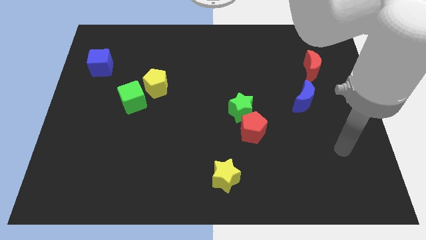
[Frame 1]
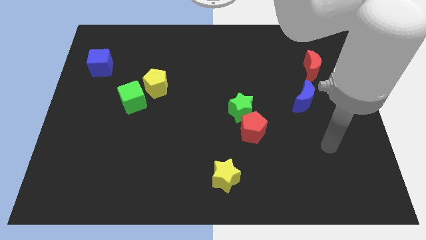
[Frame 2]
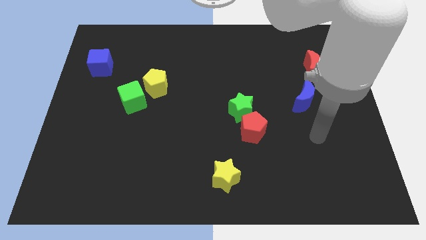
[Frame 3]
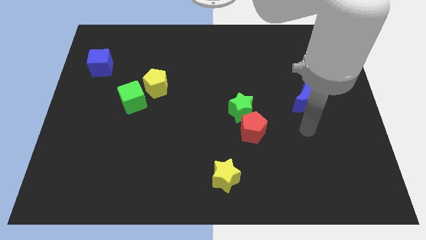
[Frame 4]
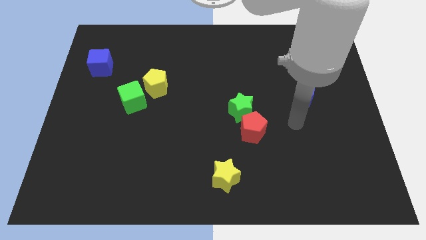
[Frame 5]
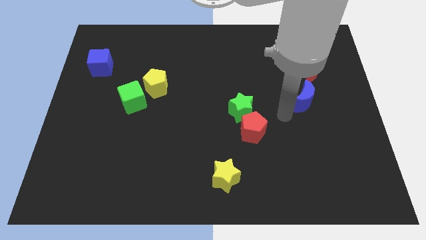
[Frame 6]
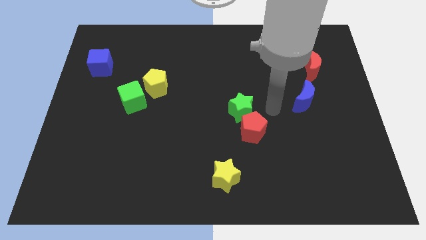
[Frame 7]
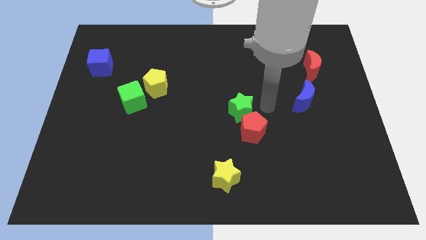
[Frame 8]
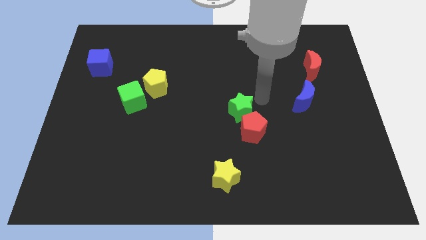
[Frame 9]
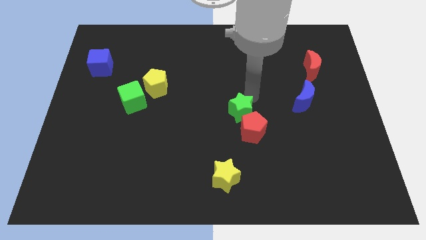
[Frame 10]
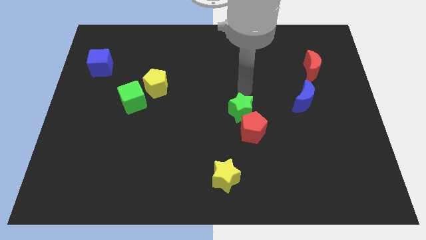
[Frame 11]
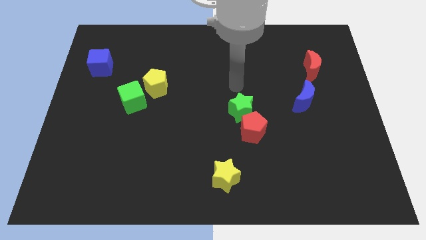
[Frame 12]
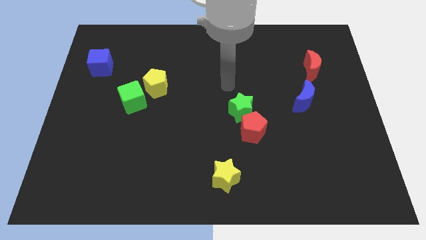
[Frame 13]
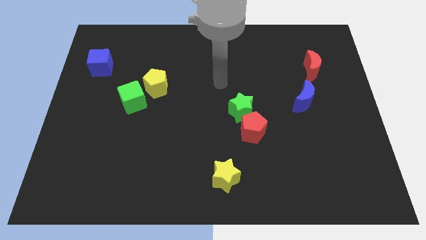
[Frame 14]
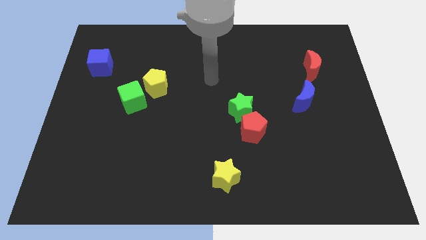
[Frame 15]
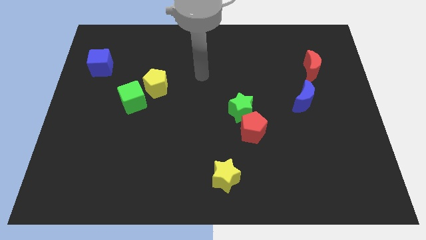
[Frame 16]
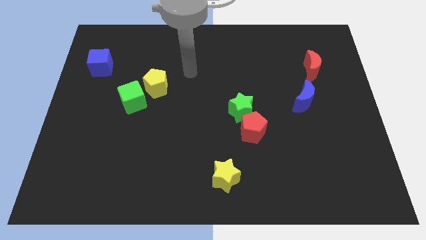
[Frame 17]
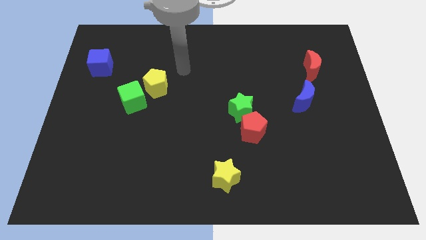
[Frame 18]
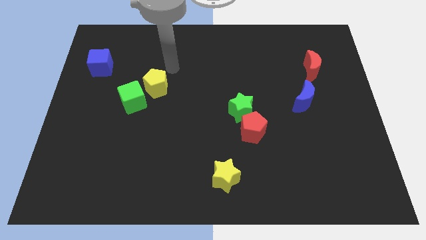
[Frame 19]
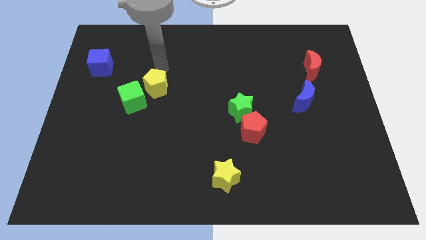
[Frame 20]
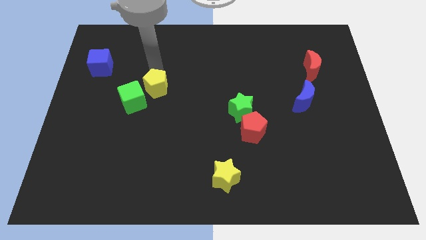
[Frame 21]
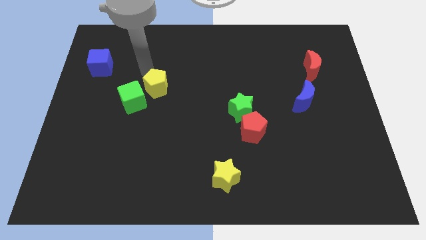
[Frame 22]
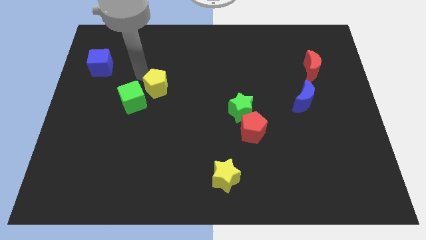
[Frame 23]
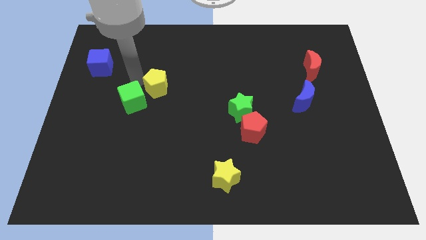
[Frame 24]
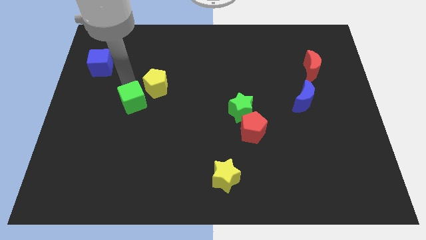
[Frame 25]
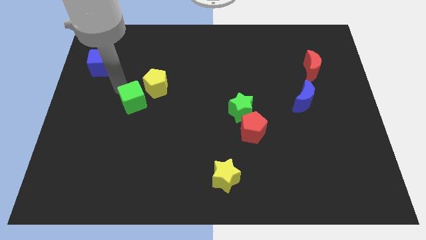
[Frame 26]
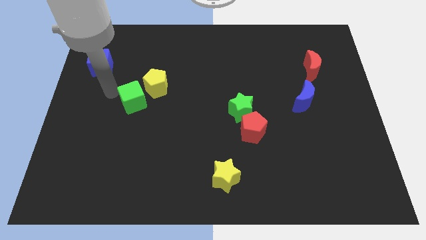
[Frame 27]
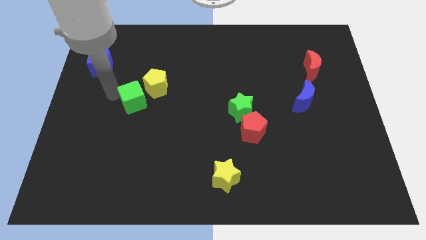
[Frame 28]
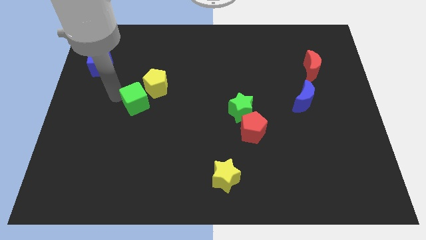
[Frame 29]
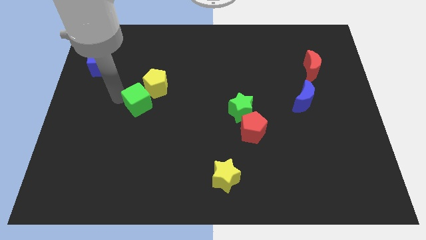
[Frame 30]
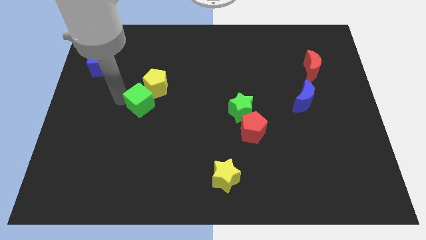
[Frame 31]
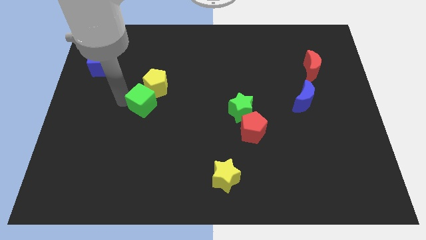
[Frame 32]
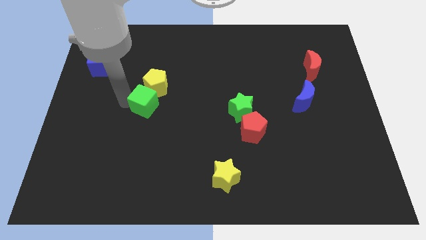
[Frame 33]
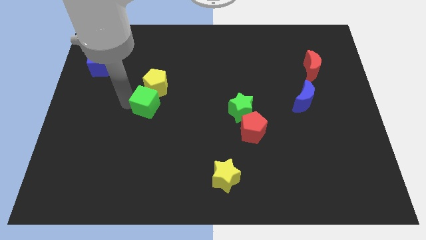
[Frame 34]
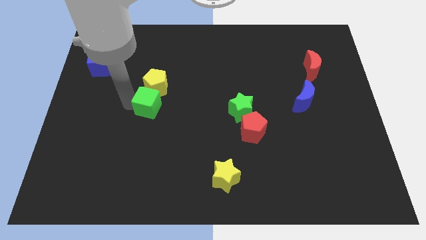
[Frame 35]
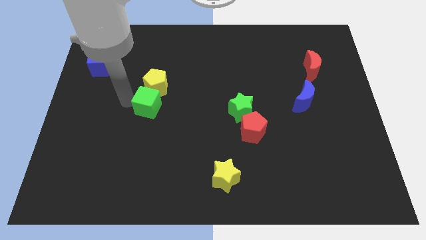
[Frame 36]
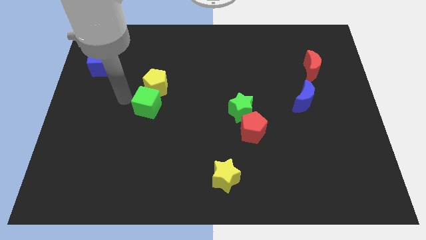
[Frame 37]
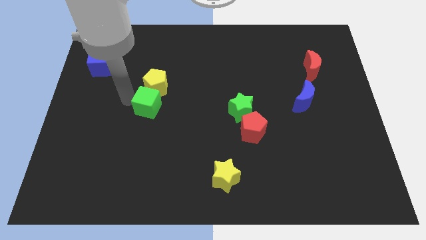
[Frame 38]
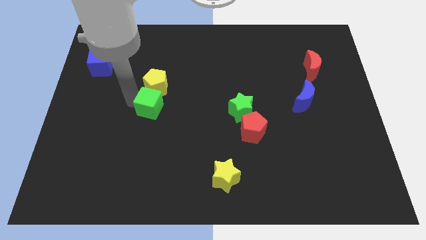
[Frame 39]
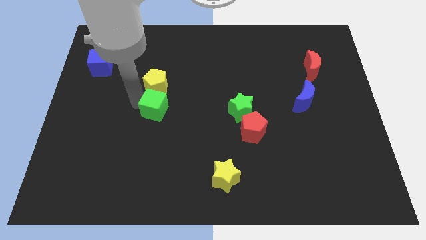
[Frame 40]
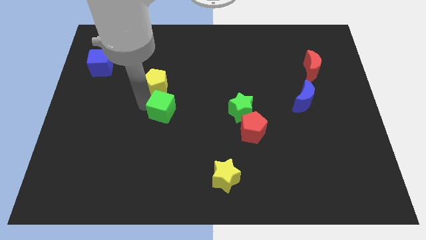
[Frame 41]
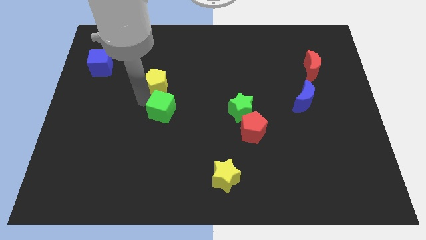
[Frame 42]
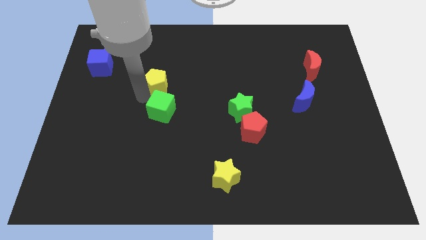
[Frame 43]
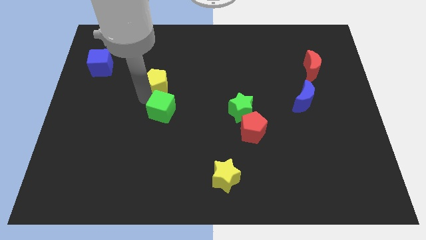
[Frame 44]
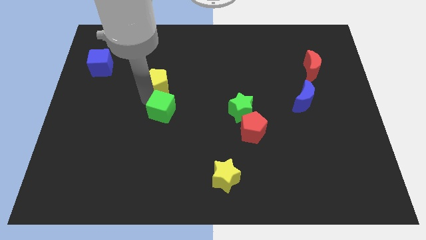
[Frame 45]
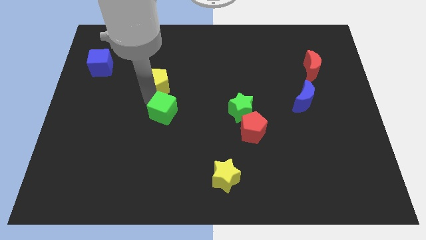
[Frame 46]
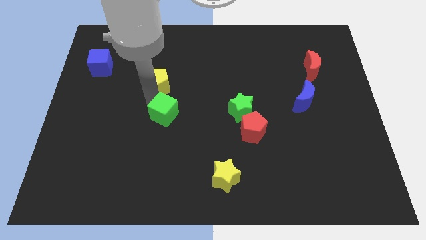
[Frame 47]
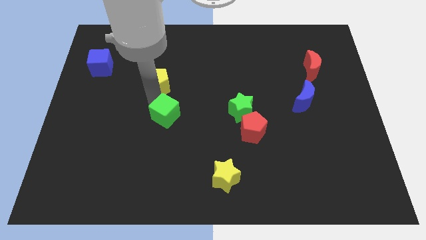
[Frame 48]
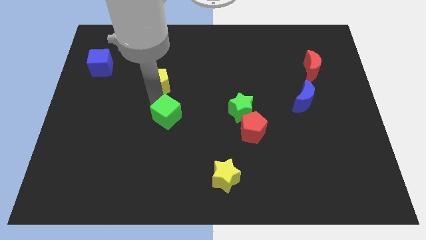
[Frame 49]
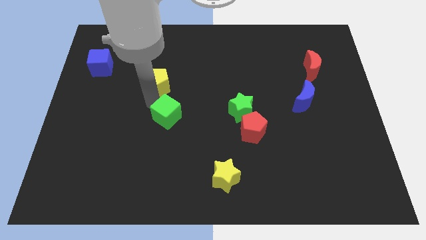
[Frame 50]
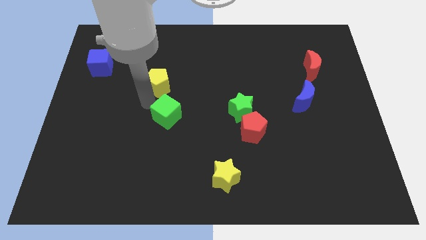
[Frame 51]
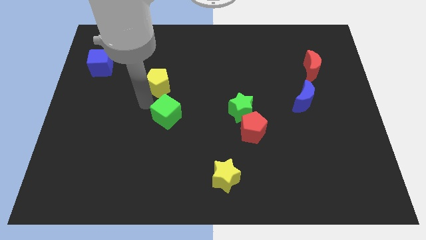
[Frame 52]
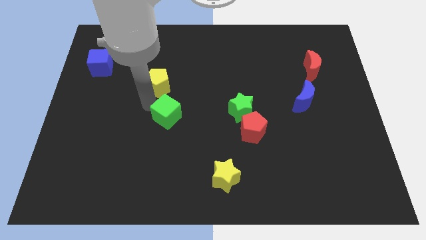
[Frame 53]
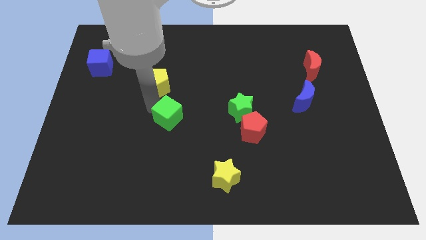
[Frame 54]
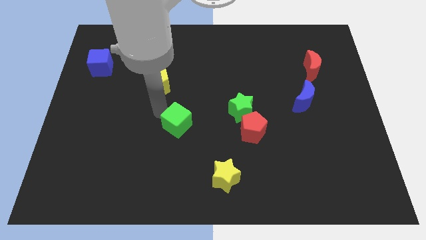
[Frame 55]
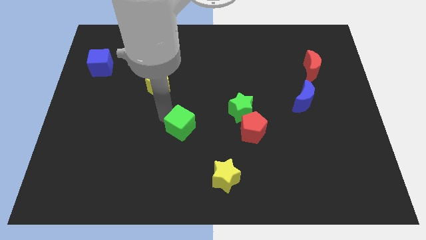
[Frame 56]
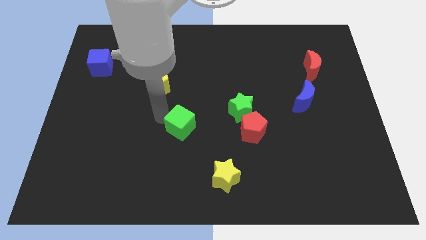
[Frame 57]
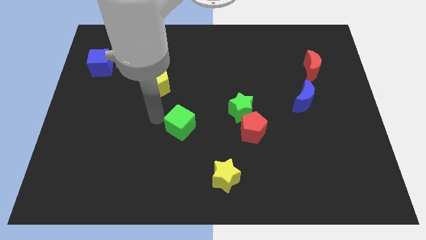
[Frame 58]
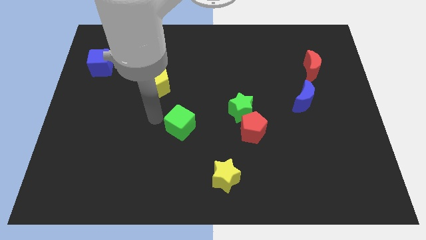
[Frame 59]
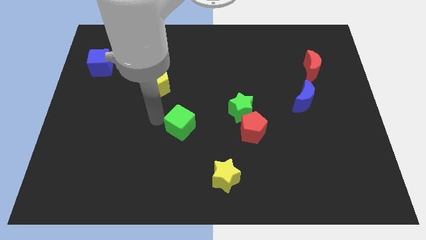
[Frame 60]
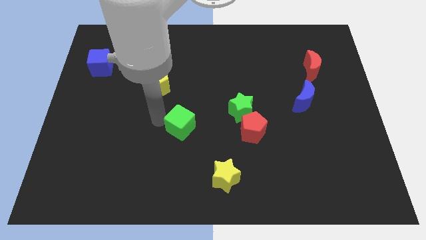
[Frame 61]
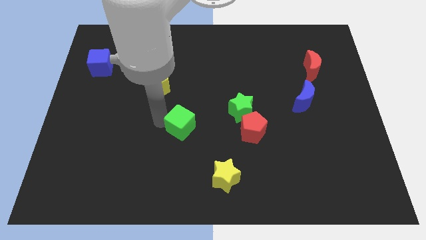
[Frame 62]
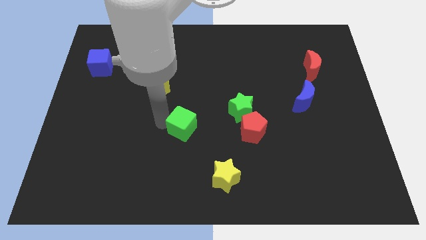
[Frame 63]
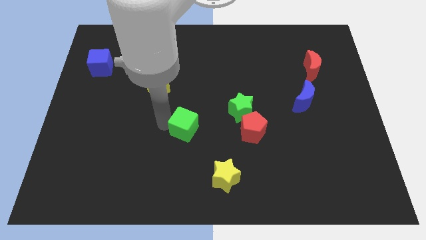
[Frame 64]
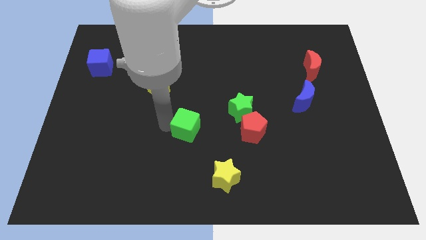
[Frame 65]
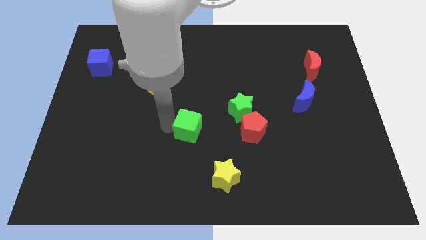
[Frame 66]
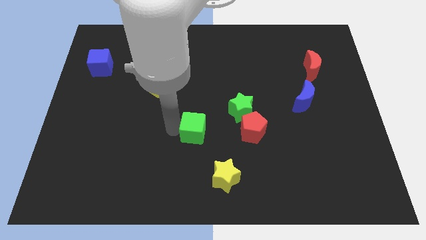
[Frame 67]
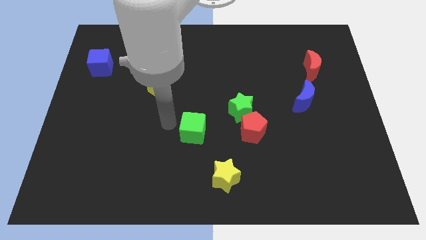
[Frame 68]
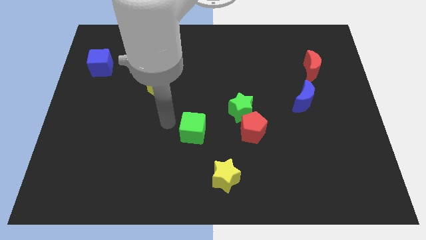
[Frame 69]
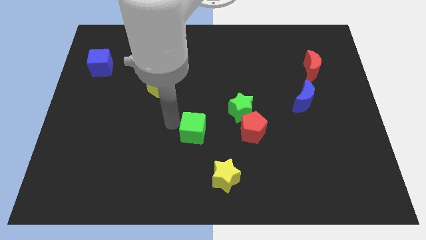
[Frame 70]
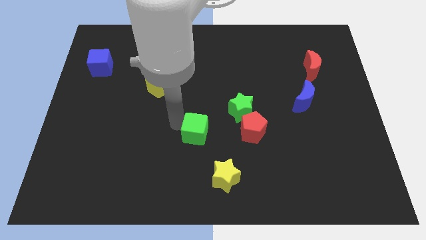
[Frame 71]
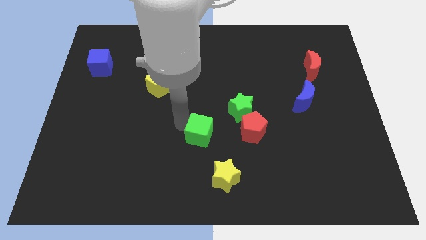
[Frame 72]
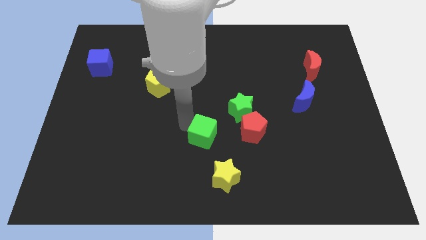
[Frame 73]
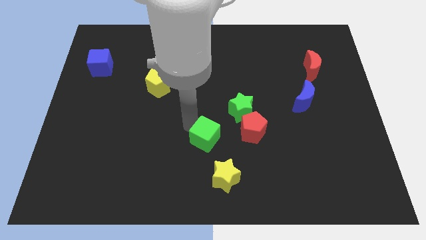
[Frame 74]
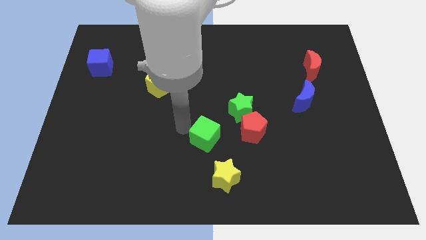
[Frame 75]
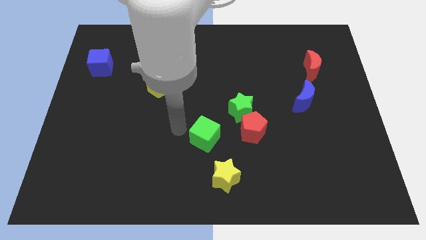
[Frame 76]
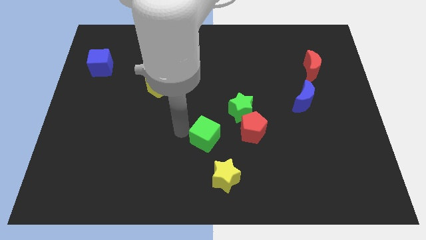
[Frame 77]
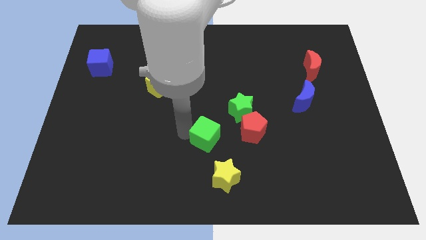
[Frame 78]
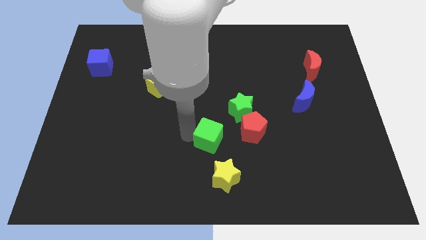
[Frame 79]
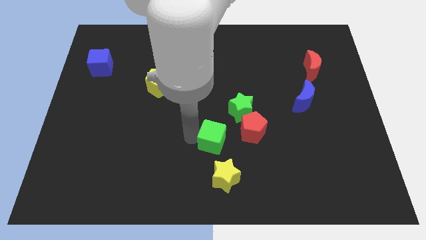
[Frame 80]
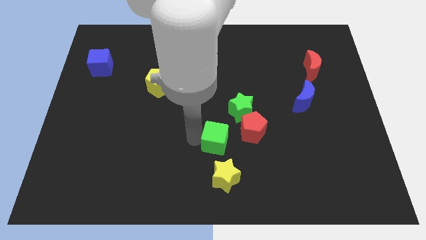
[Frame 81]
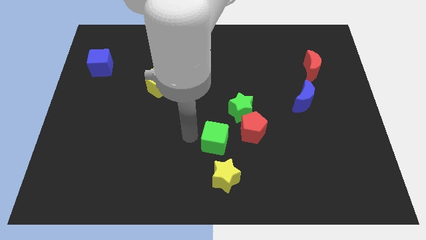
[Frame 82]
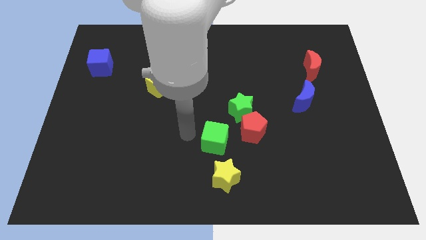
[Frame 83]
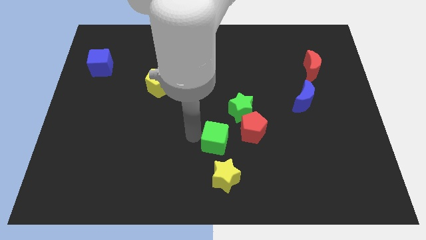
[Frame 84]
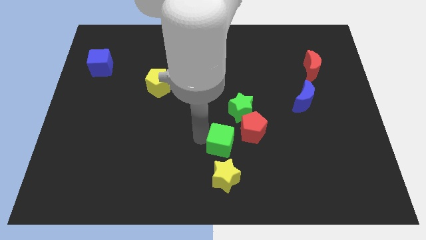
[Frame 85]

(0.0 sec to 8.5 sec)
put the green cube to the bottom of the green star
